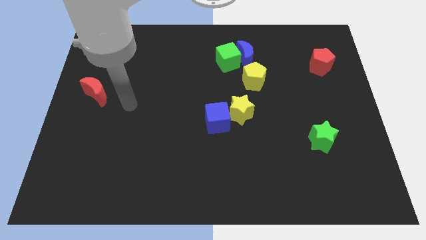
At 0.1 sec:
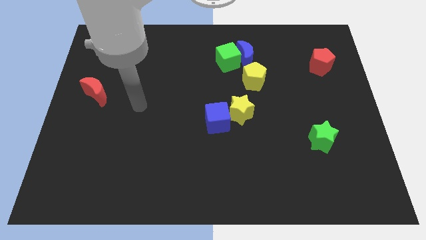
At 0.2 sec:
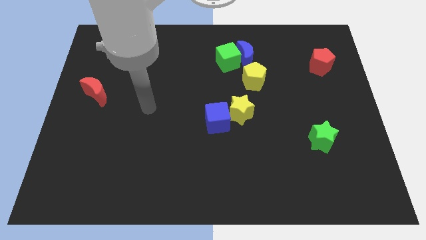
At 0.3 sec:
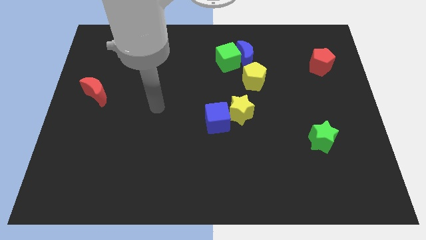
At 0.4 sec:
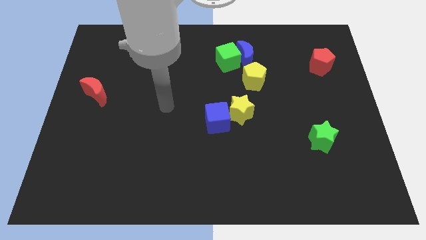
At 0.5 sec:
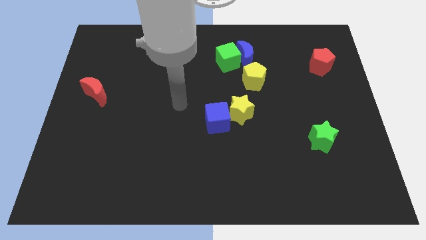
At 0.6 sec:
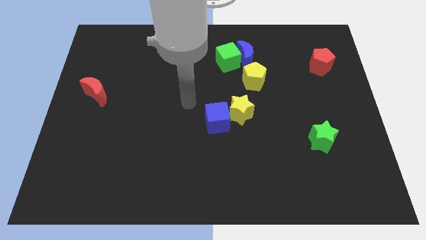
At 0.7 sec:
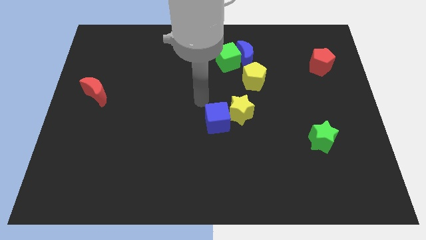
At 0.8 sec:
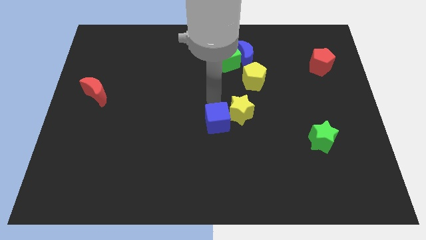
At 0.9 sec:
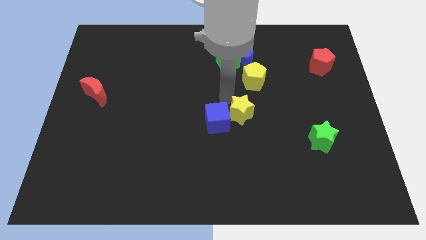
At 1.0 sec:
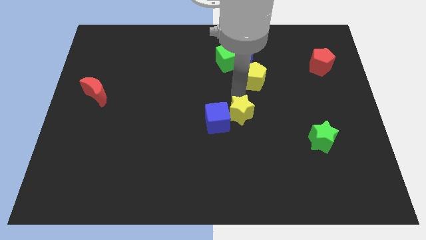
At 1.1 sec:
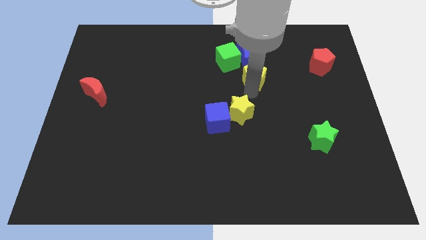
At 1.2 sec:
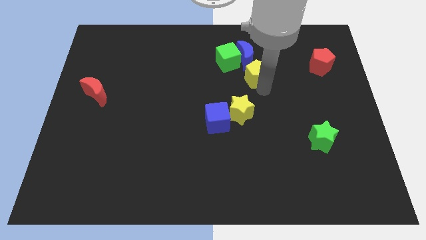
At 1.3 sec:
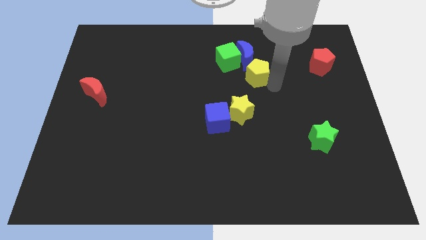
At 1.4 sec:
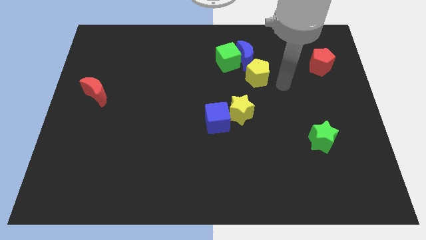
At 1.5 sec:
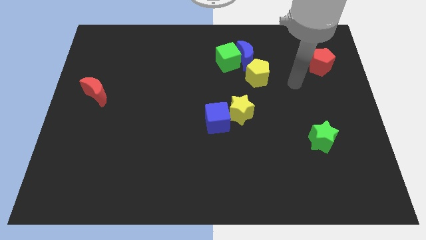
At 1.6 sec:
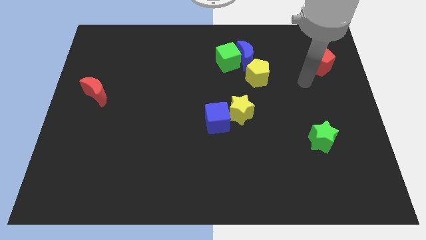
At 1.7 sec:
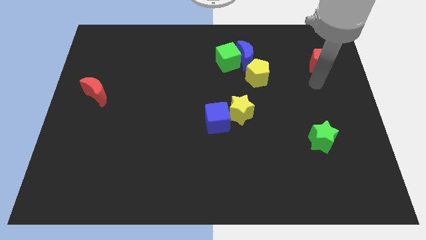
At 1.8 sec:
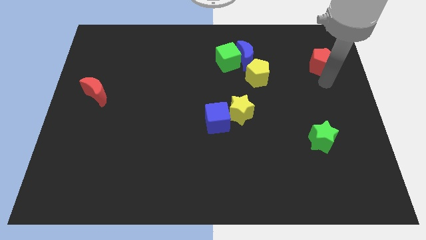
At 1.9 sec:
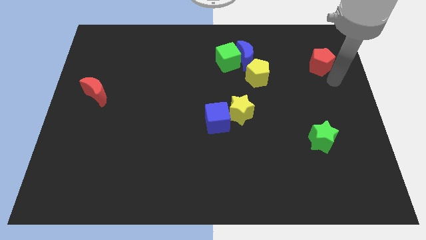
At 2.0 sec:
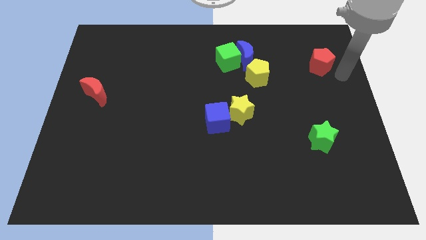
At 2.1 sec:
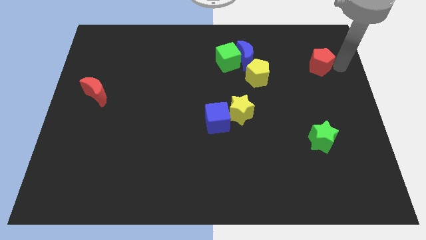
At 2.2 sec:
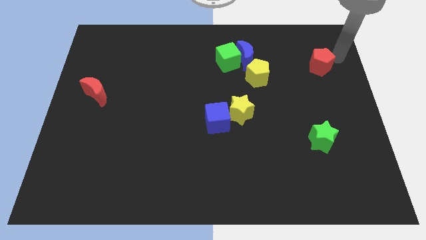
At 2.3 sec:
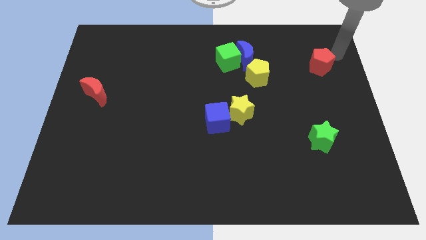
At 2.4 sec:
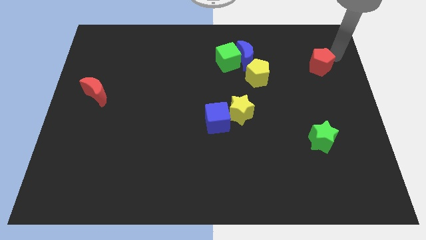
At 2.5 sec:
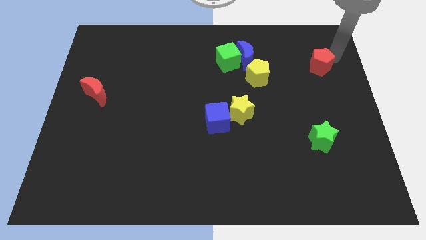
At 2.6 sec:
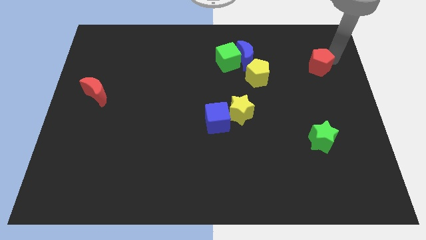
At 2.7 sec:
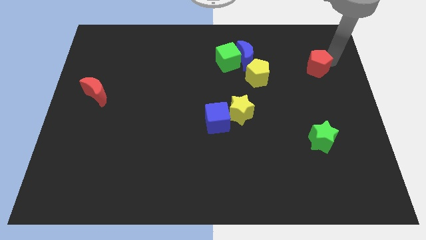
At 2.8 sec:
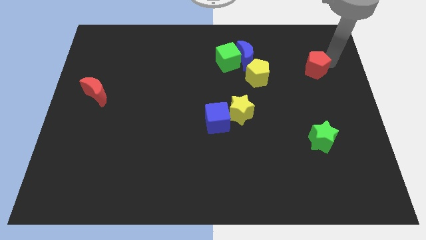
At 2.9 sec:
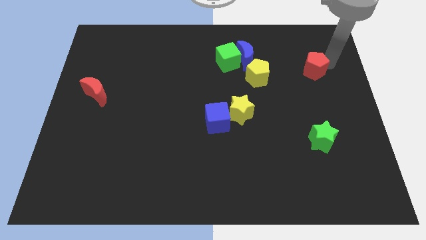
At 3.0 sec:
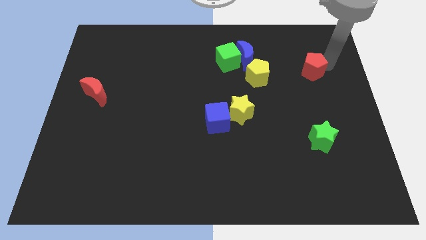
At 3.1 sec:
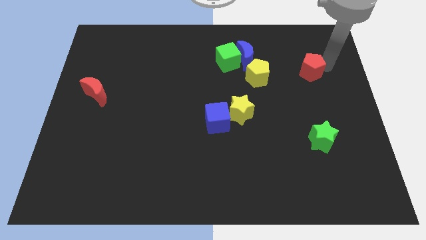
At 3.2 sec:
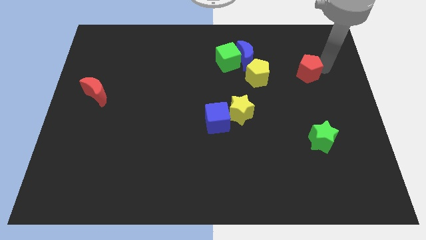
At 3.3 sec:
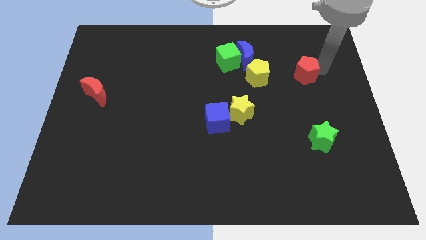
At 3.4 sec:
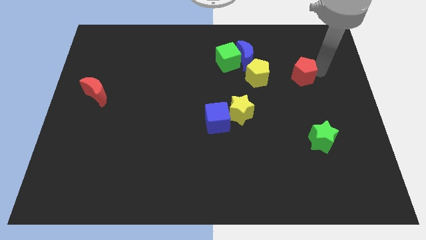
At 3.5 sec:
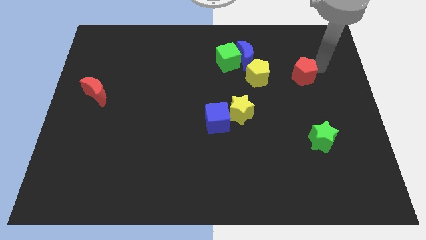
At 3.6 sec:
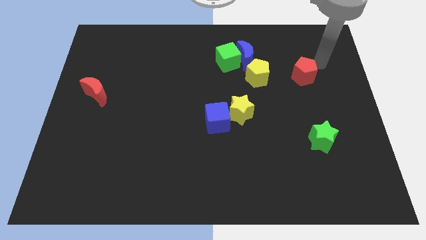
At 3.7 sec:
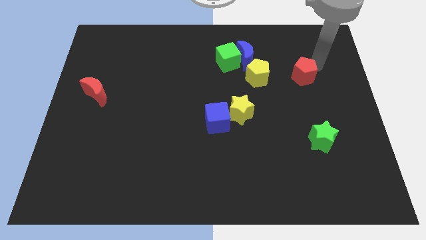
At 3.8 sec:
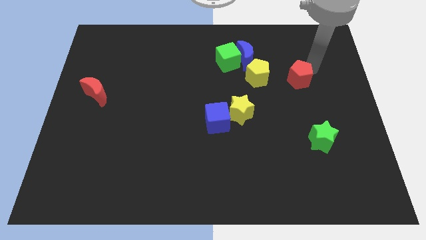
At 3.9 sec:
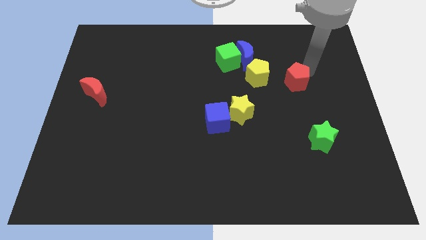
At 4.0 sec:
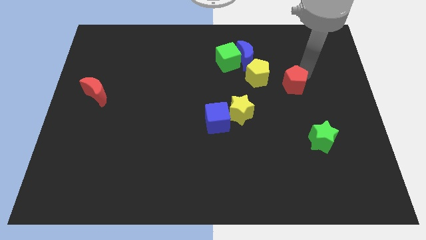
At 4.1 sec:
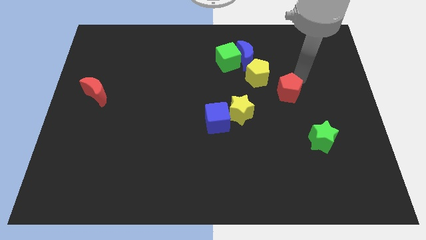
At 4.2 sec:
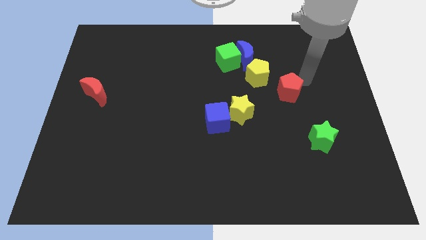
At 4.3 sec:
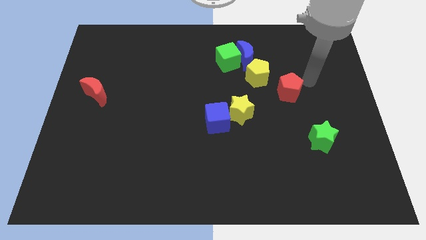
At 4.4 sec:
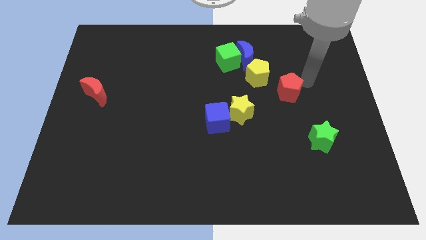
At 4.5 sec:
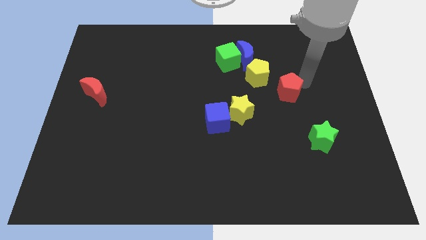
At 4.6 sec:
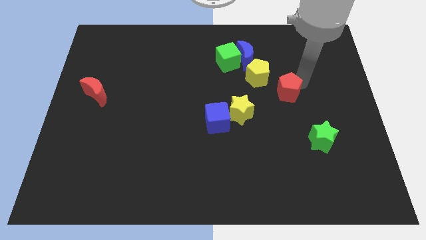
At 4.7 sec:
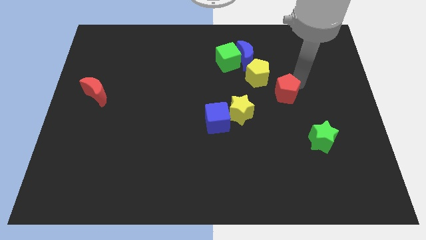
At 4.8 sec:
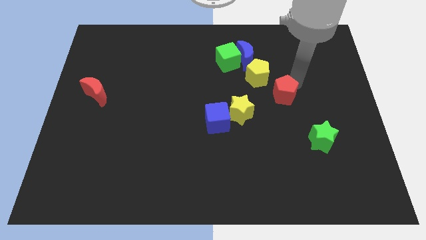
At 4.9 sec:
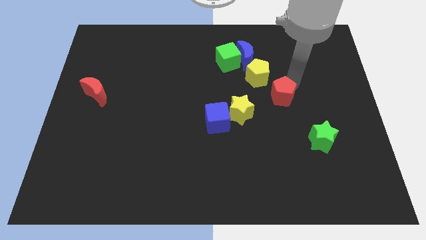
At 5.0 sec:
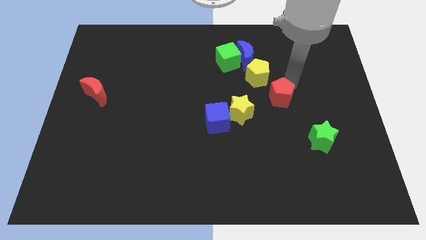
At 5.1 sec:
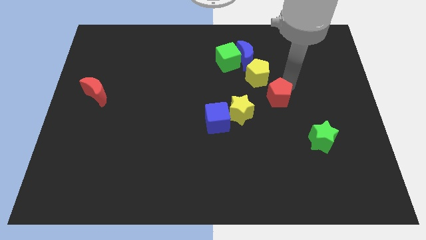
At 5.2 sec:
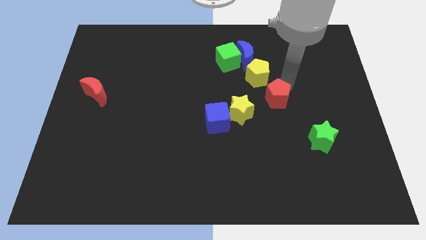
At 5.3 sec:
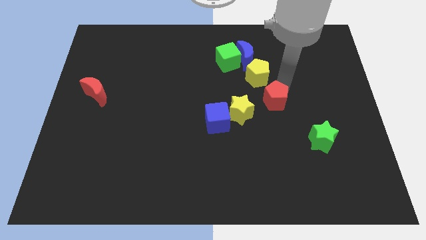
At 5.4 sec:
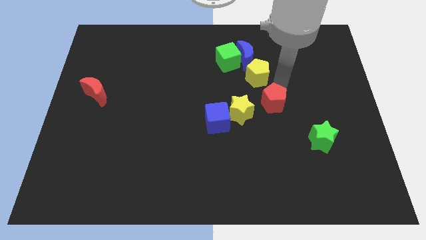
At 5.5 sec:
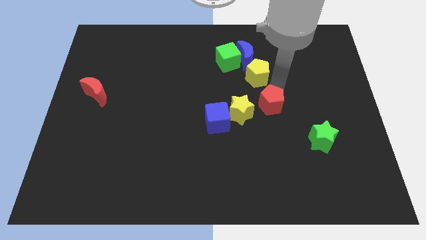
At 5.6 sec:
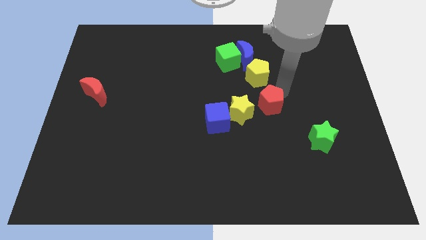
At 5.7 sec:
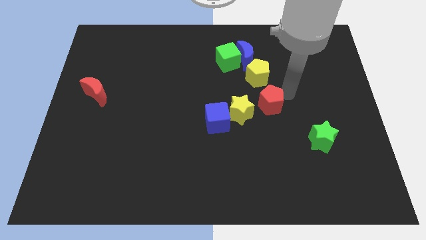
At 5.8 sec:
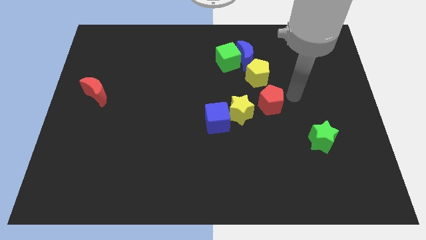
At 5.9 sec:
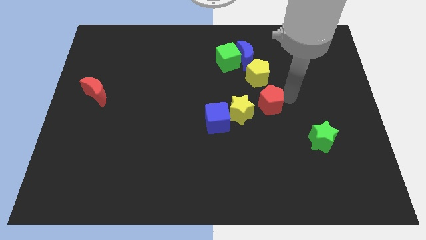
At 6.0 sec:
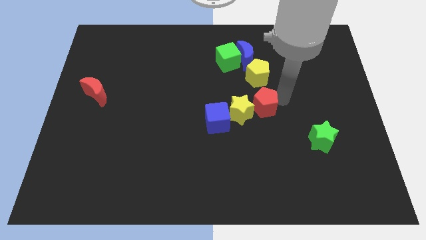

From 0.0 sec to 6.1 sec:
push the red pentagon towards the yellow star
